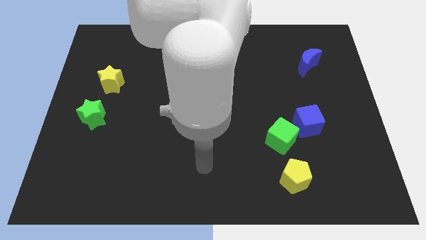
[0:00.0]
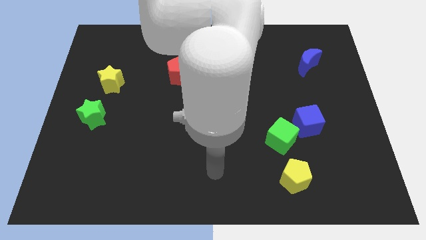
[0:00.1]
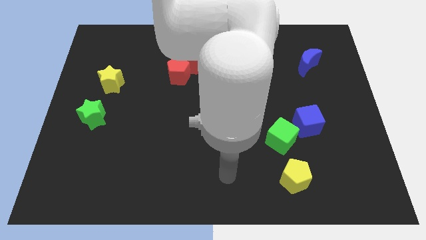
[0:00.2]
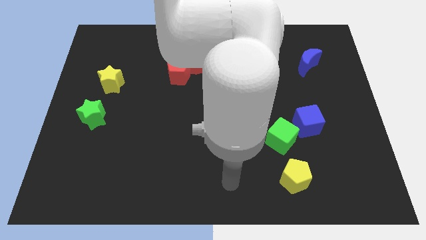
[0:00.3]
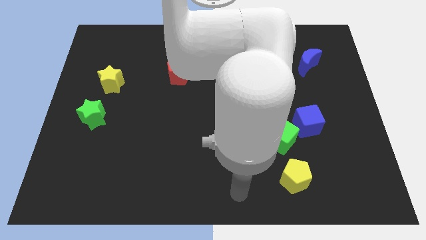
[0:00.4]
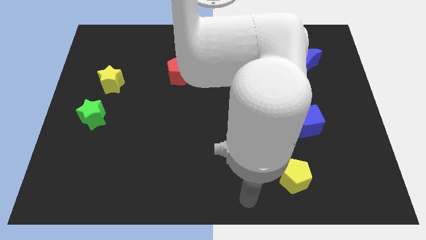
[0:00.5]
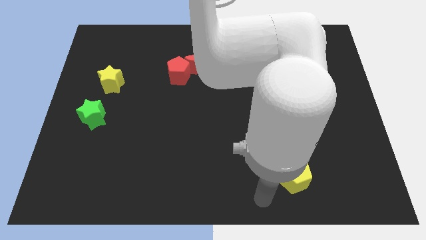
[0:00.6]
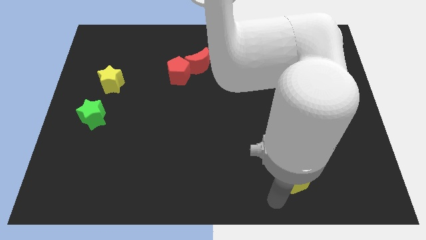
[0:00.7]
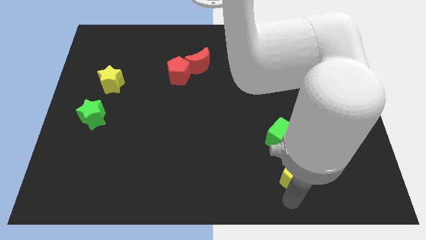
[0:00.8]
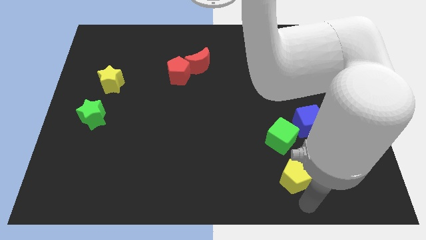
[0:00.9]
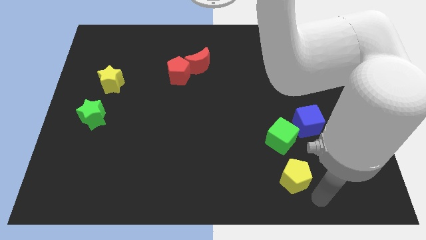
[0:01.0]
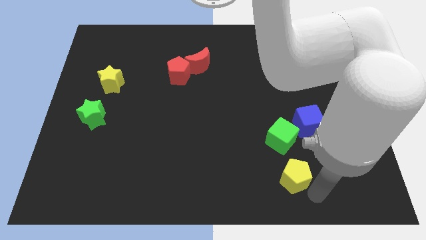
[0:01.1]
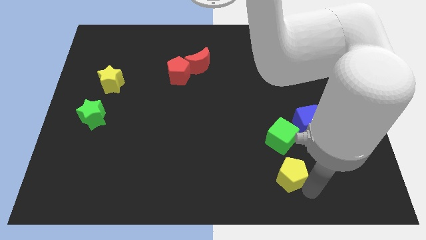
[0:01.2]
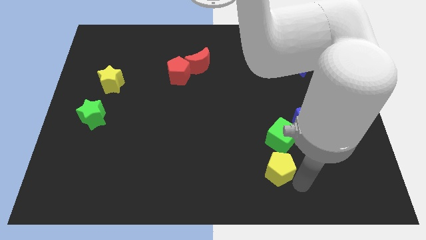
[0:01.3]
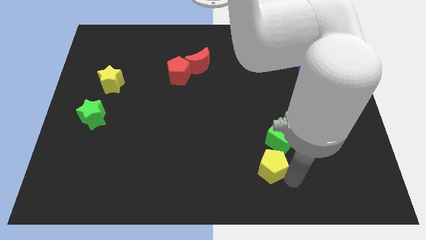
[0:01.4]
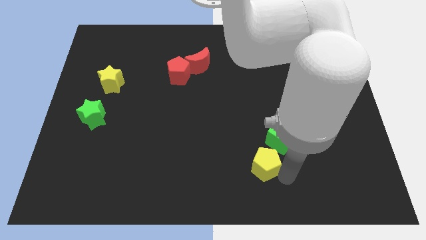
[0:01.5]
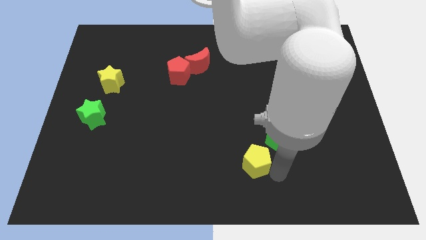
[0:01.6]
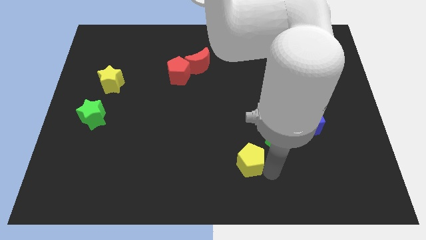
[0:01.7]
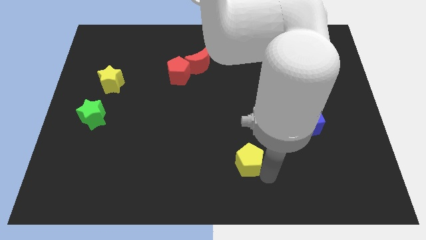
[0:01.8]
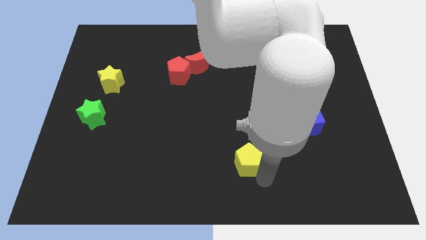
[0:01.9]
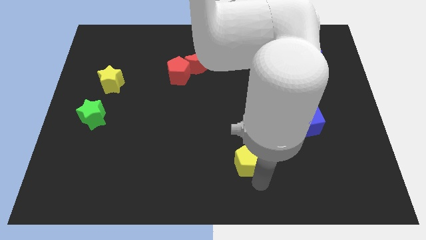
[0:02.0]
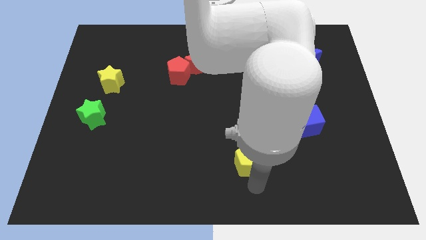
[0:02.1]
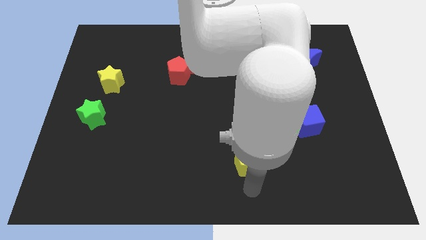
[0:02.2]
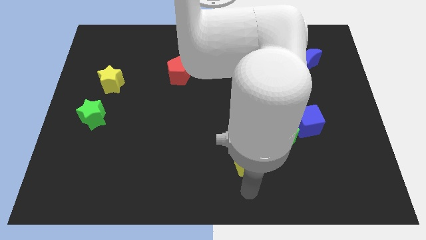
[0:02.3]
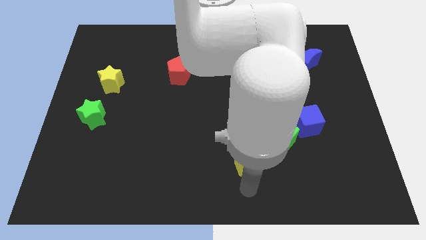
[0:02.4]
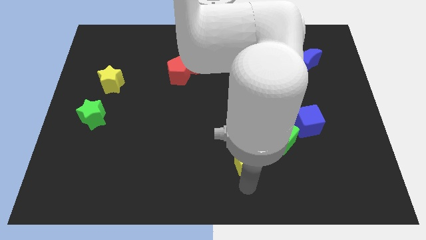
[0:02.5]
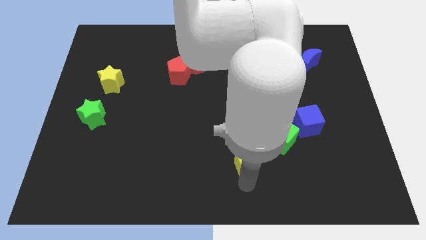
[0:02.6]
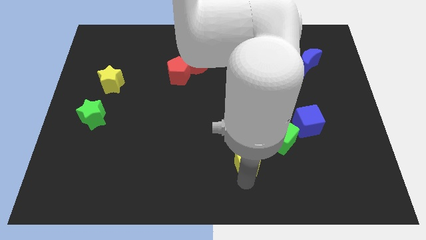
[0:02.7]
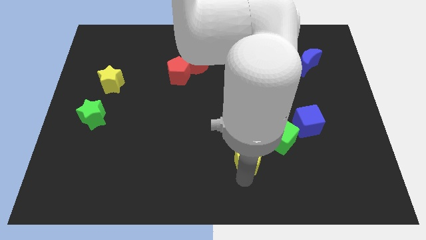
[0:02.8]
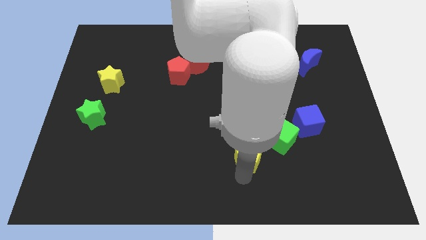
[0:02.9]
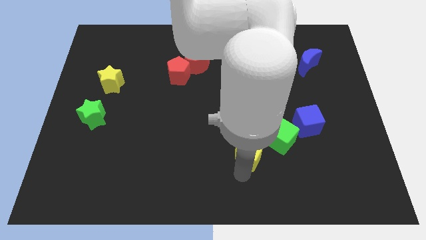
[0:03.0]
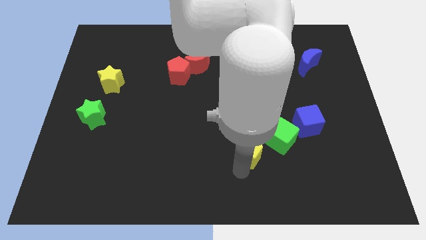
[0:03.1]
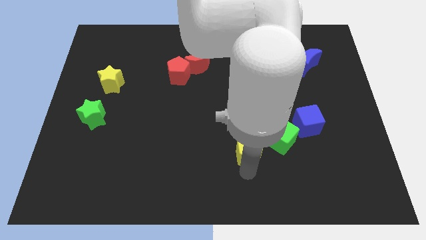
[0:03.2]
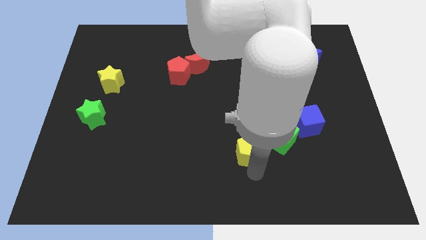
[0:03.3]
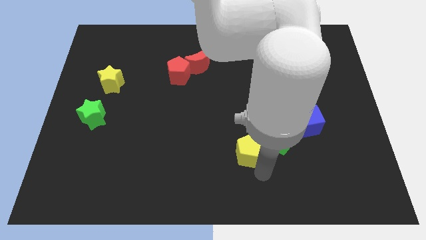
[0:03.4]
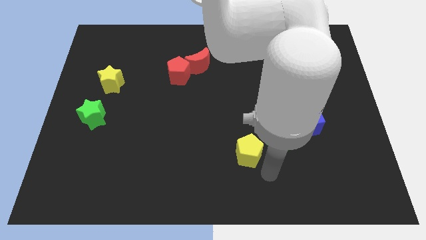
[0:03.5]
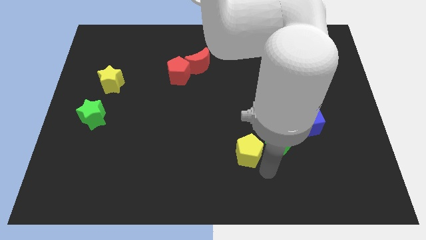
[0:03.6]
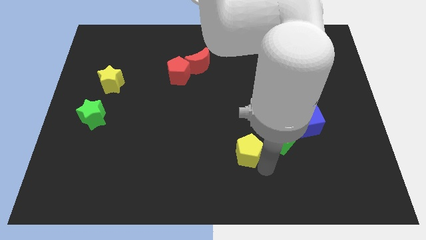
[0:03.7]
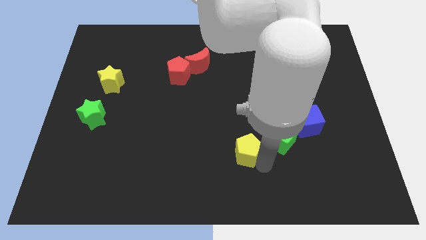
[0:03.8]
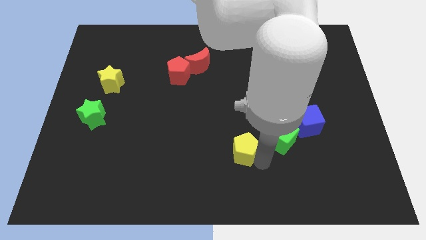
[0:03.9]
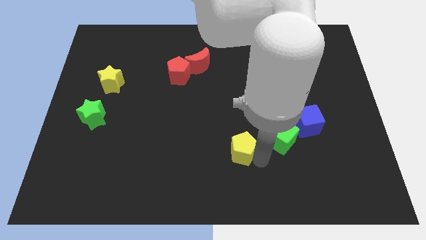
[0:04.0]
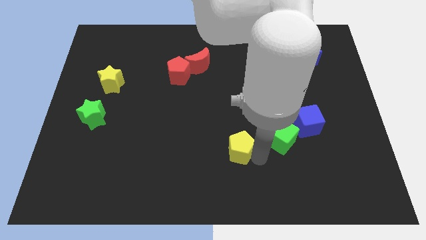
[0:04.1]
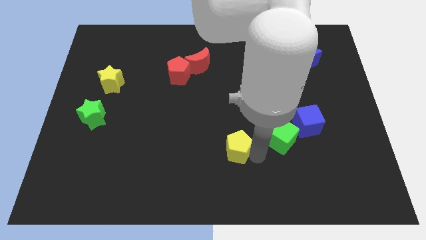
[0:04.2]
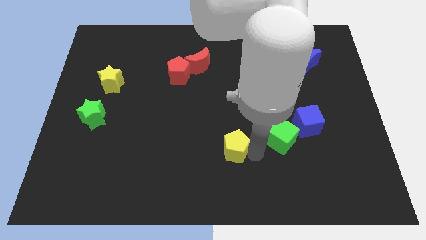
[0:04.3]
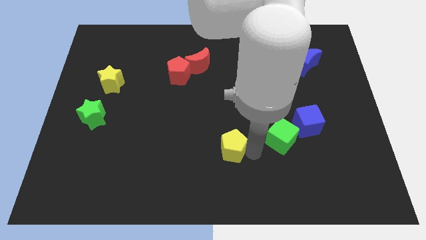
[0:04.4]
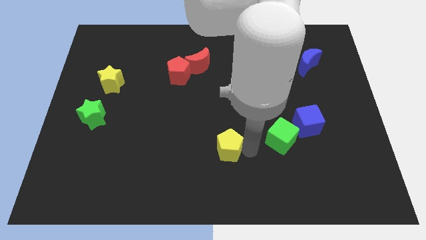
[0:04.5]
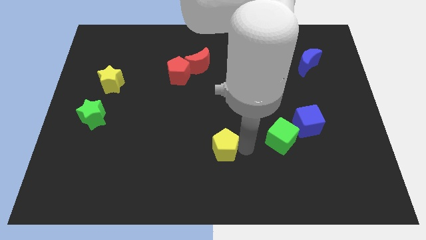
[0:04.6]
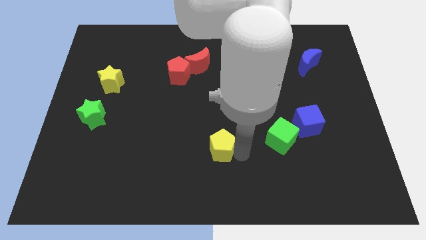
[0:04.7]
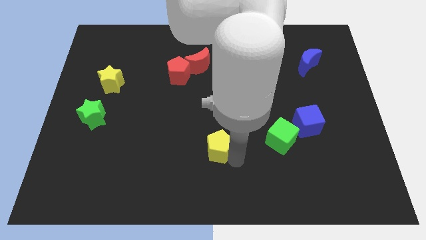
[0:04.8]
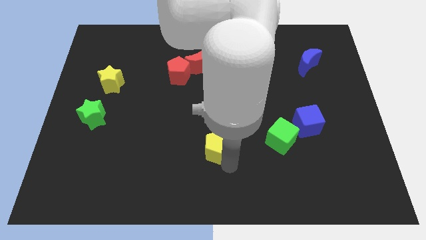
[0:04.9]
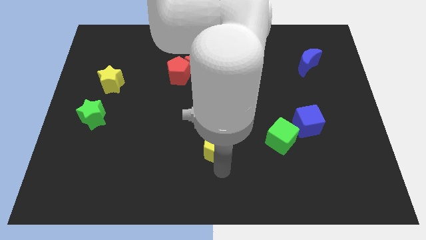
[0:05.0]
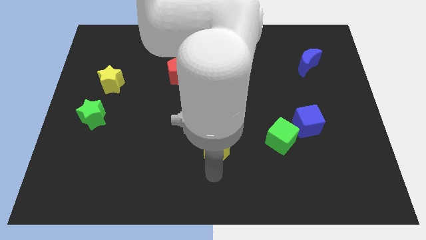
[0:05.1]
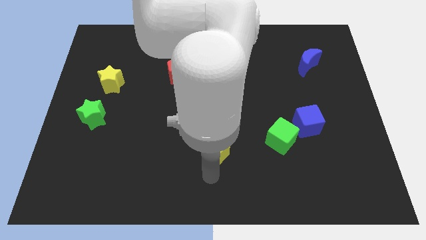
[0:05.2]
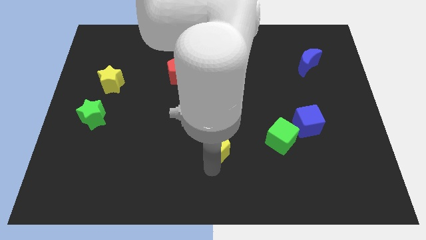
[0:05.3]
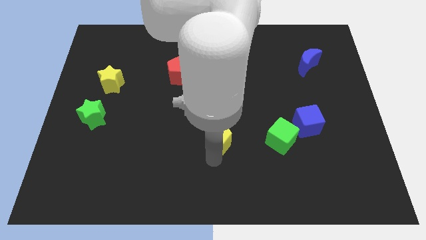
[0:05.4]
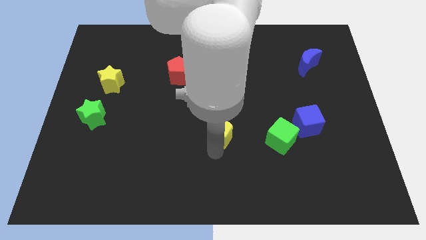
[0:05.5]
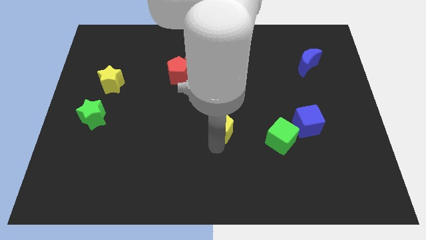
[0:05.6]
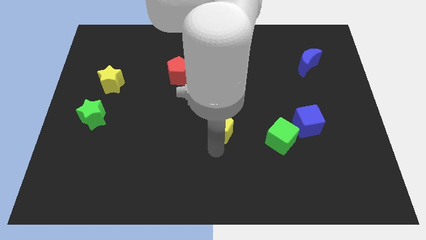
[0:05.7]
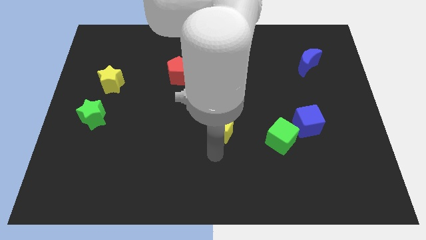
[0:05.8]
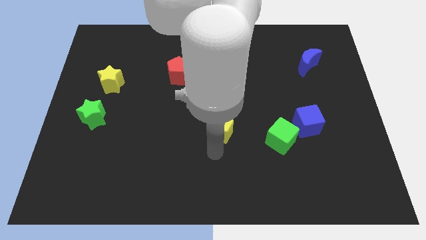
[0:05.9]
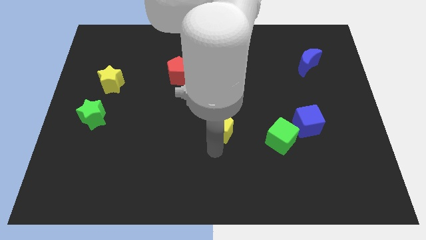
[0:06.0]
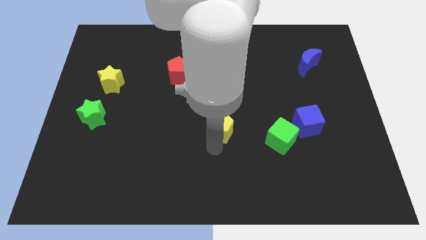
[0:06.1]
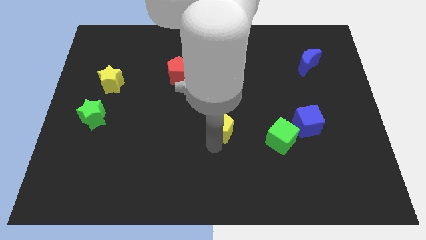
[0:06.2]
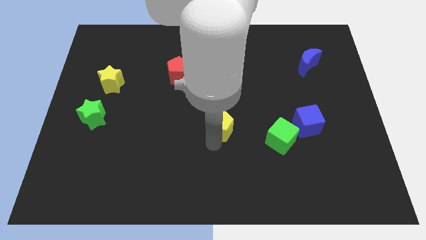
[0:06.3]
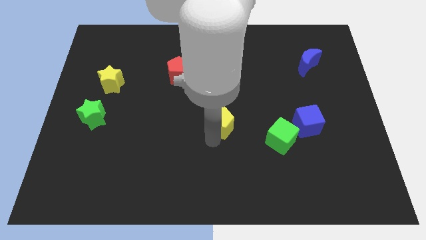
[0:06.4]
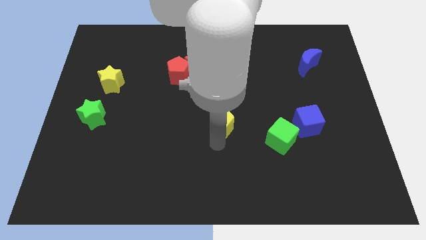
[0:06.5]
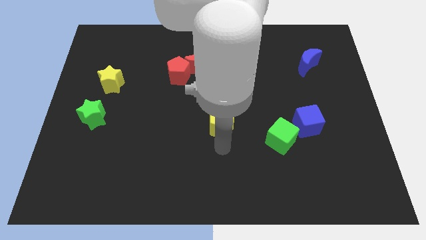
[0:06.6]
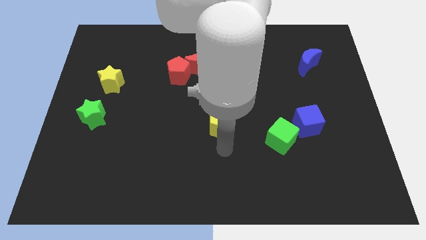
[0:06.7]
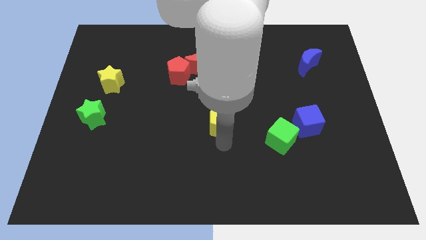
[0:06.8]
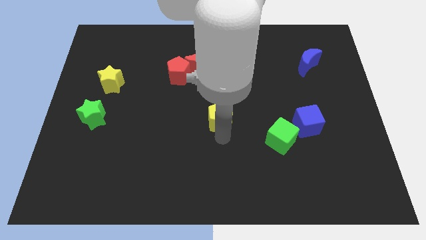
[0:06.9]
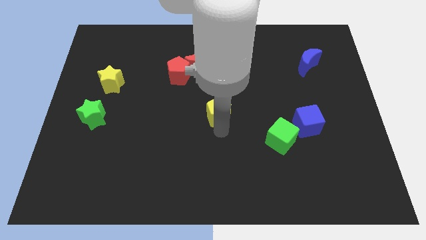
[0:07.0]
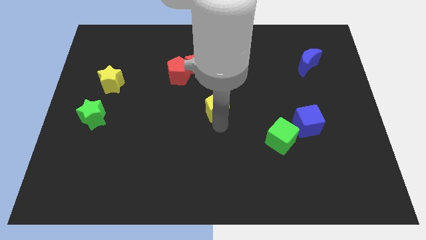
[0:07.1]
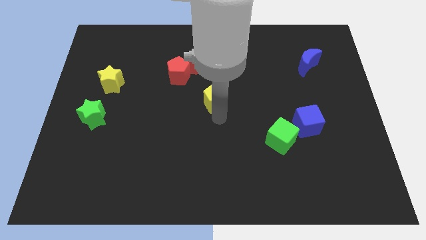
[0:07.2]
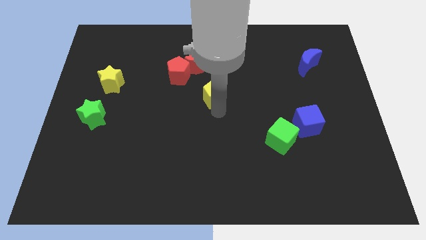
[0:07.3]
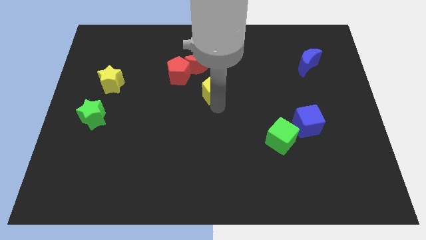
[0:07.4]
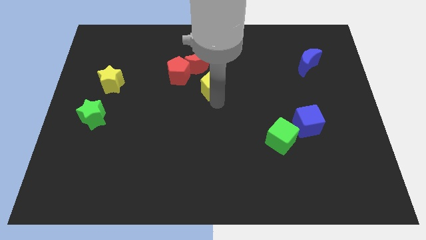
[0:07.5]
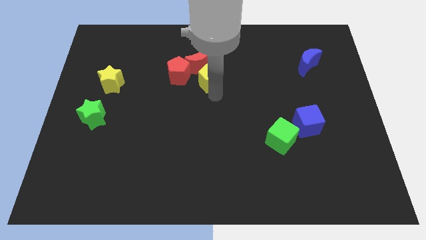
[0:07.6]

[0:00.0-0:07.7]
put the yellow pentagon to the red moon
